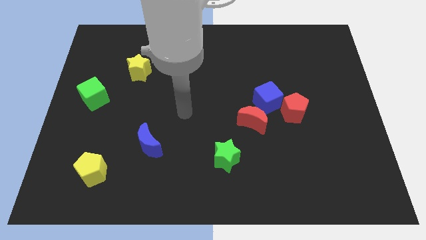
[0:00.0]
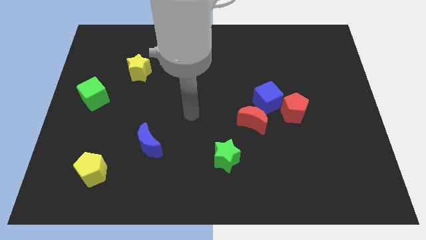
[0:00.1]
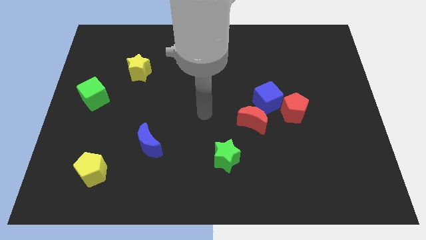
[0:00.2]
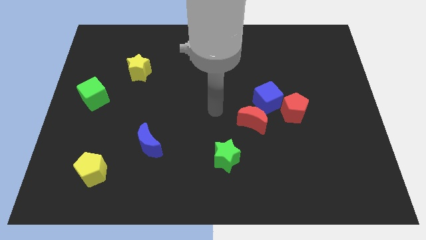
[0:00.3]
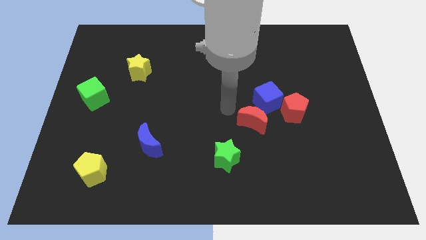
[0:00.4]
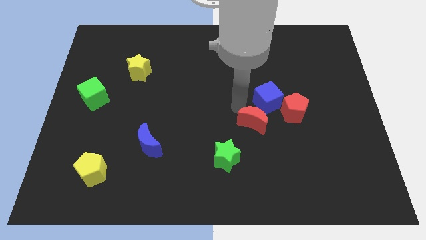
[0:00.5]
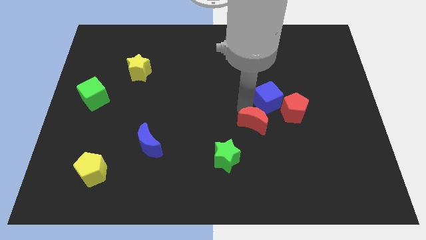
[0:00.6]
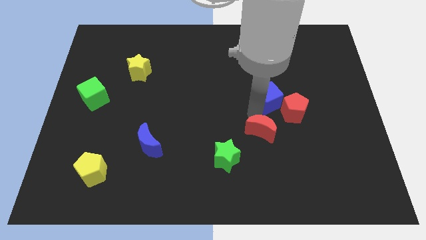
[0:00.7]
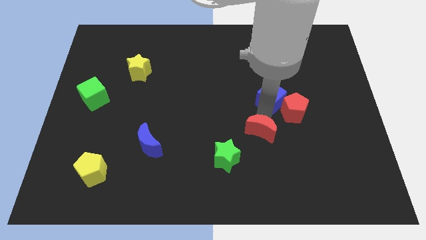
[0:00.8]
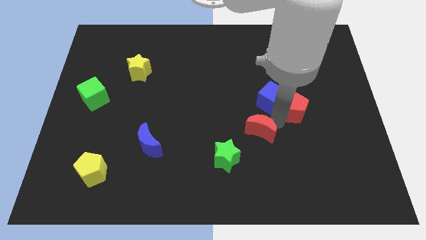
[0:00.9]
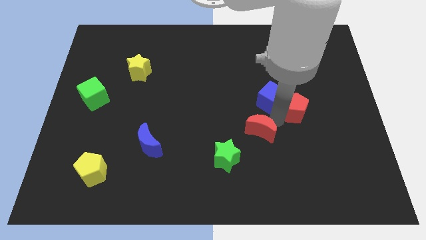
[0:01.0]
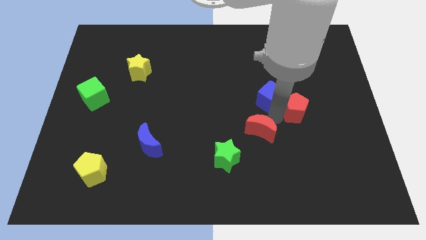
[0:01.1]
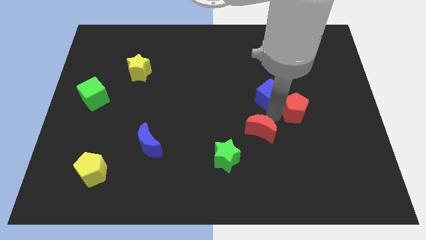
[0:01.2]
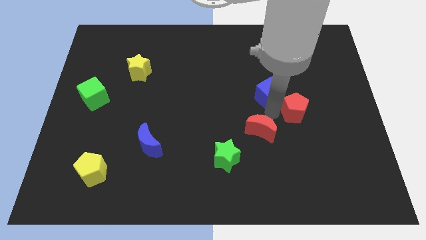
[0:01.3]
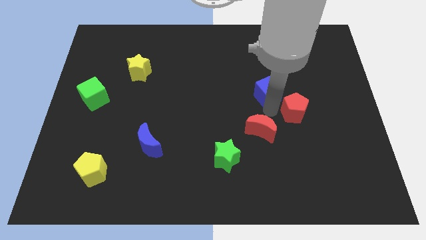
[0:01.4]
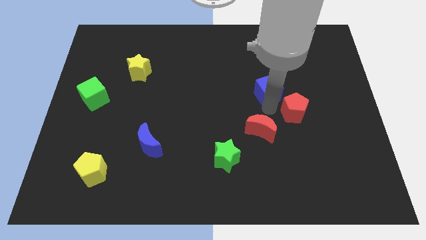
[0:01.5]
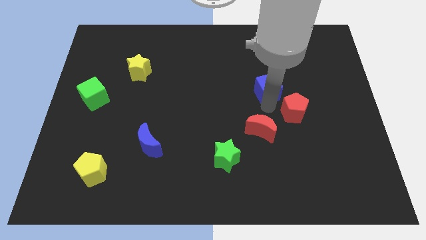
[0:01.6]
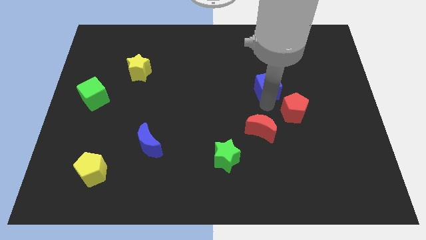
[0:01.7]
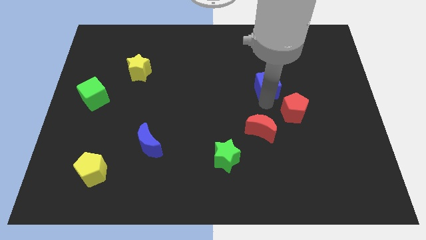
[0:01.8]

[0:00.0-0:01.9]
move the blue cube away from the red pentagon and red moon

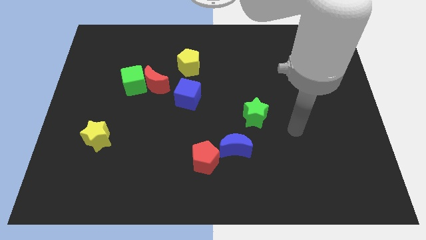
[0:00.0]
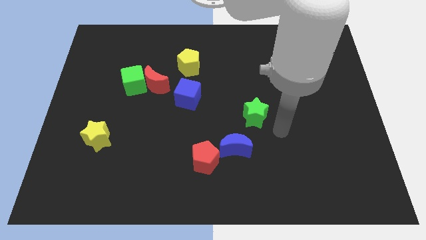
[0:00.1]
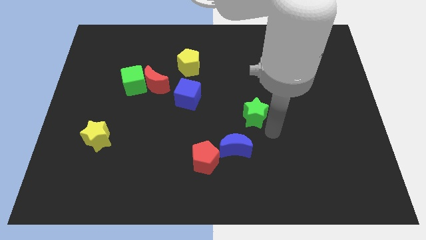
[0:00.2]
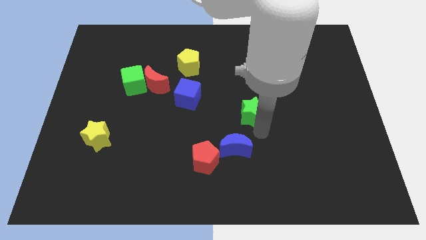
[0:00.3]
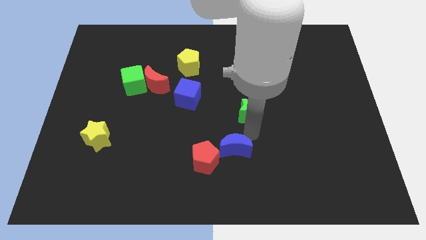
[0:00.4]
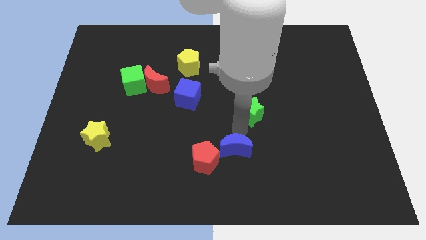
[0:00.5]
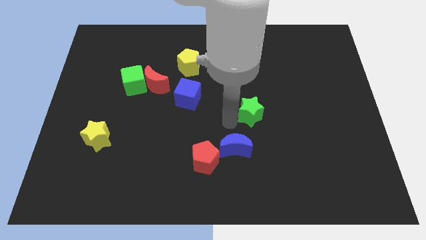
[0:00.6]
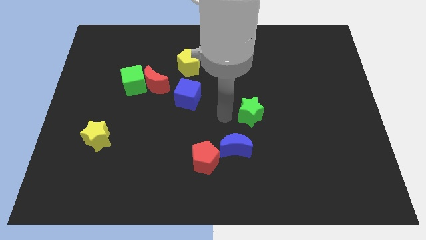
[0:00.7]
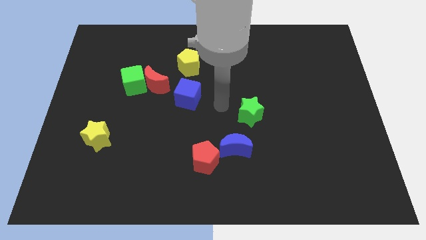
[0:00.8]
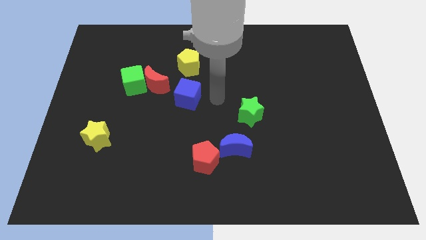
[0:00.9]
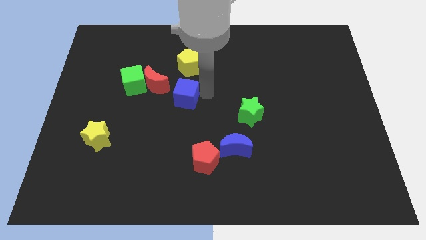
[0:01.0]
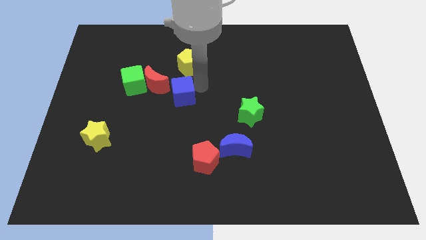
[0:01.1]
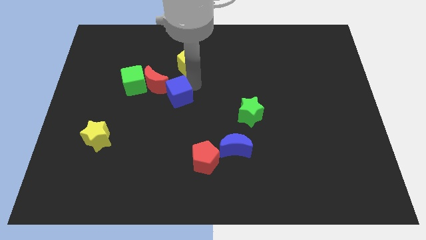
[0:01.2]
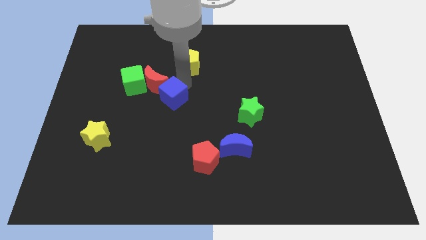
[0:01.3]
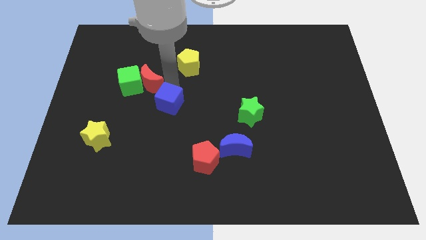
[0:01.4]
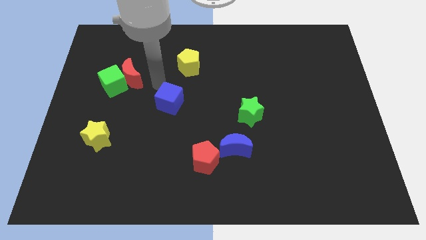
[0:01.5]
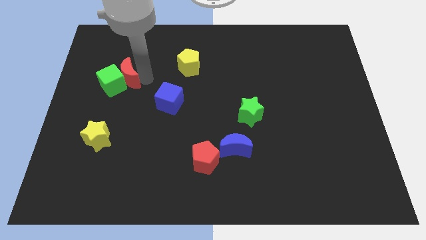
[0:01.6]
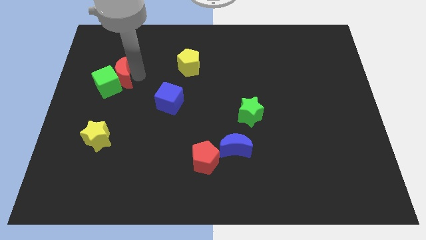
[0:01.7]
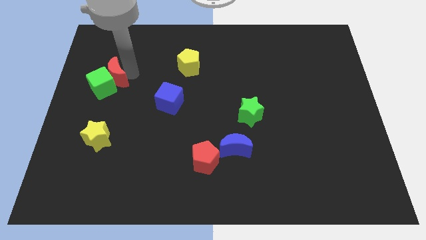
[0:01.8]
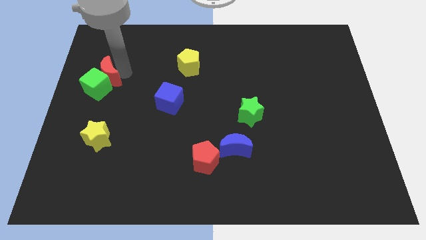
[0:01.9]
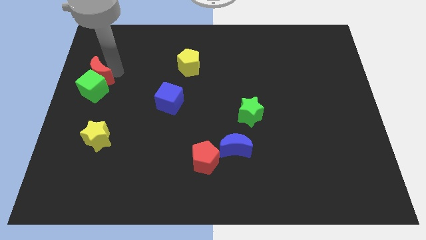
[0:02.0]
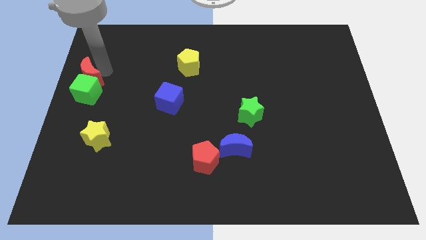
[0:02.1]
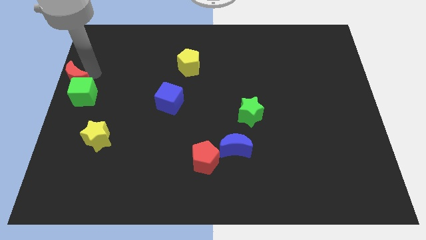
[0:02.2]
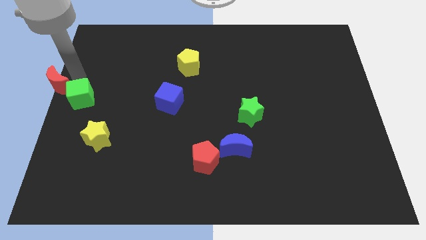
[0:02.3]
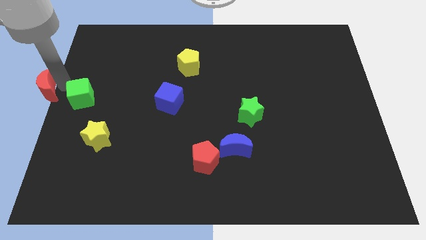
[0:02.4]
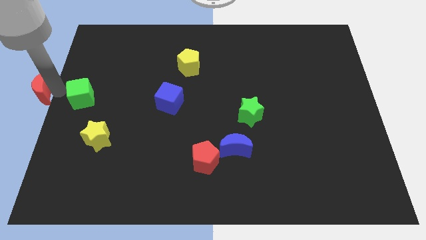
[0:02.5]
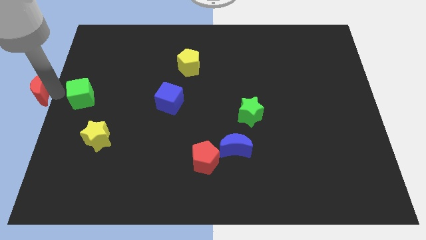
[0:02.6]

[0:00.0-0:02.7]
separate the green cube from the red moon

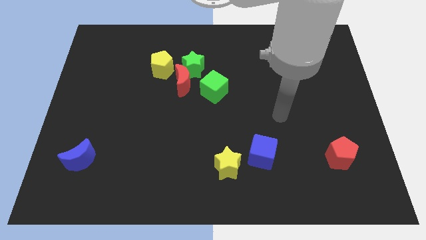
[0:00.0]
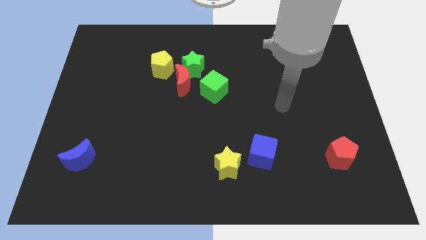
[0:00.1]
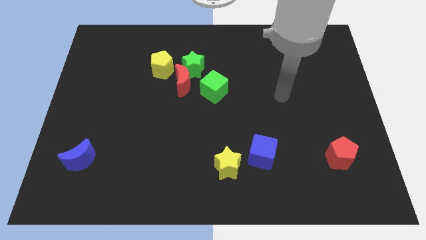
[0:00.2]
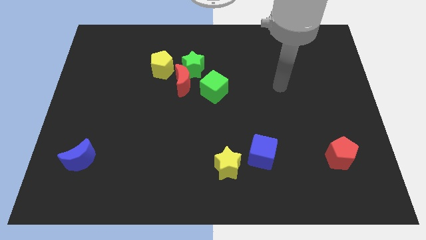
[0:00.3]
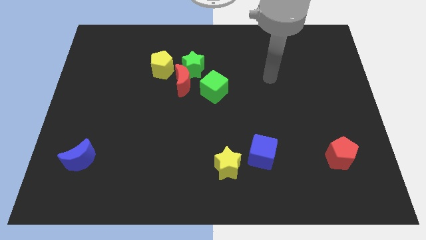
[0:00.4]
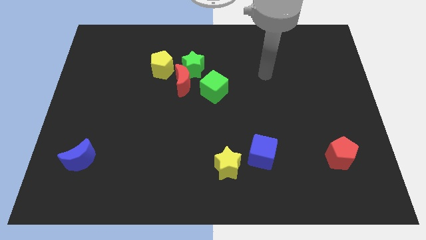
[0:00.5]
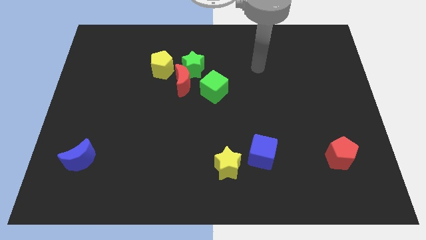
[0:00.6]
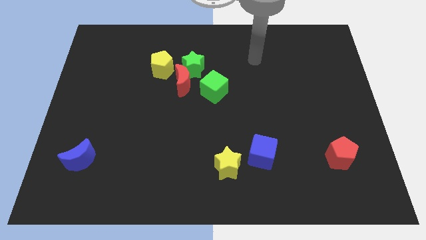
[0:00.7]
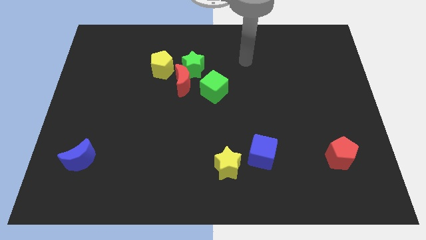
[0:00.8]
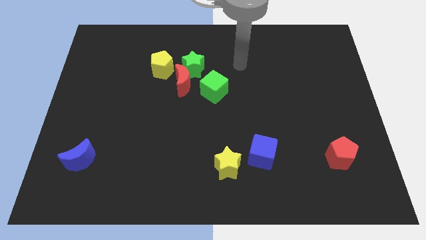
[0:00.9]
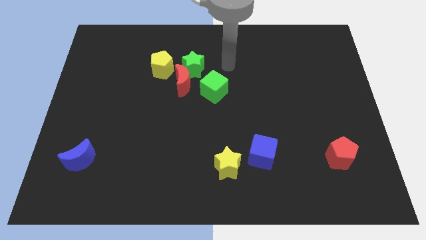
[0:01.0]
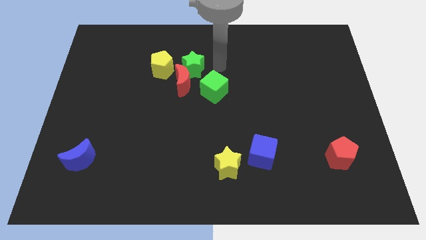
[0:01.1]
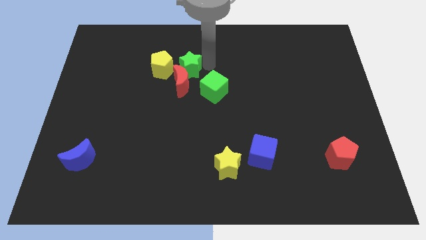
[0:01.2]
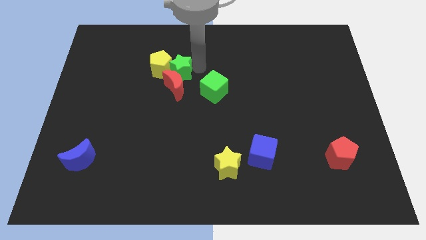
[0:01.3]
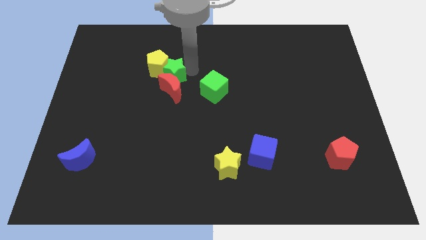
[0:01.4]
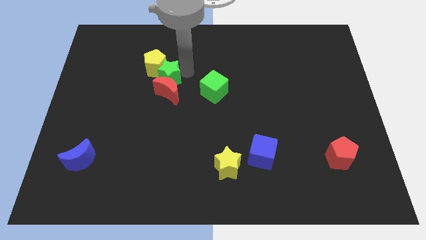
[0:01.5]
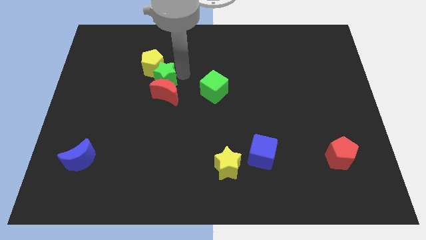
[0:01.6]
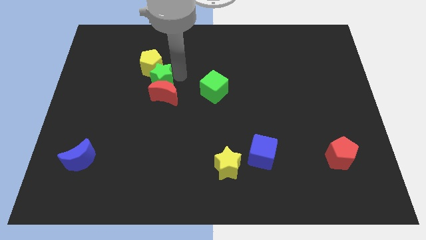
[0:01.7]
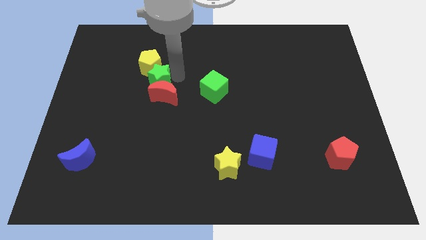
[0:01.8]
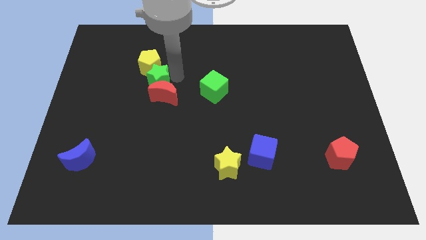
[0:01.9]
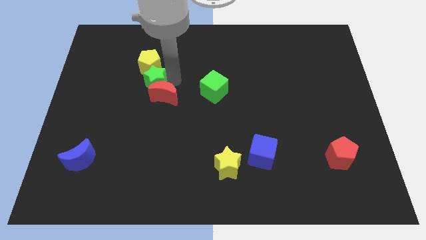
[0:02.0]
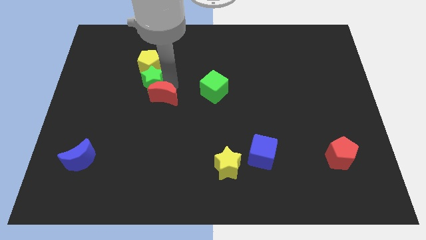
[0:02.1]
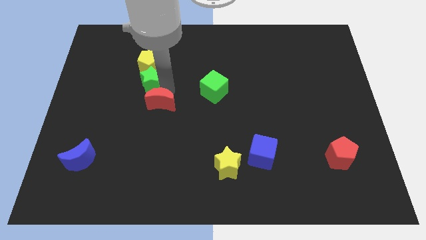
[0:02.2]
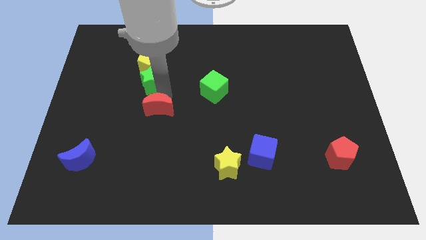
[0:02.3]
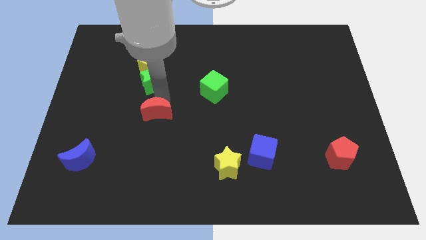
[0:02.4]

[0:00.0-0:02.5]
move the red moon away from the green star, yellow pentagon, and green cube

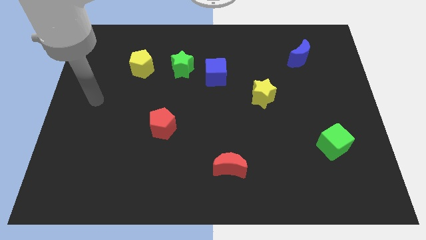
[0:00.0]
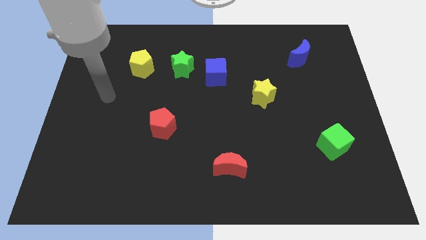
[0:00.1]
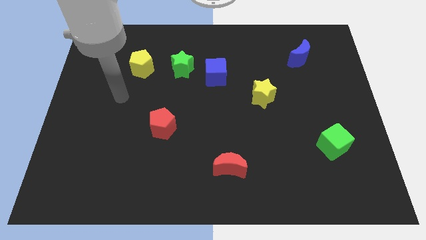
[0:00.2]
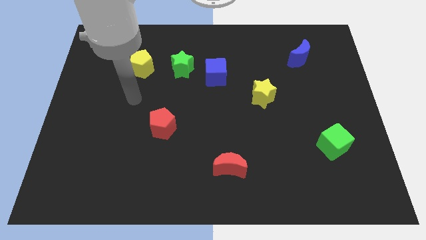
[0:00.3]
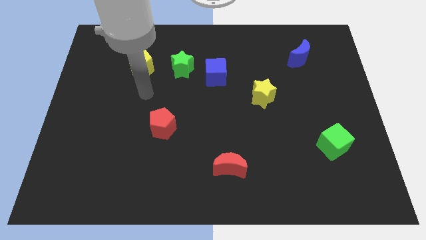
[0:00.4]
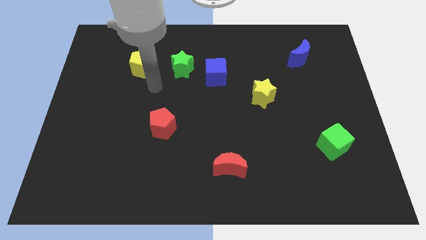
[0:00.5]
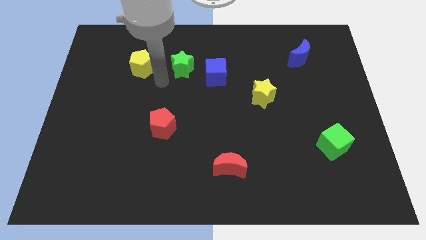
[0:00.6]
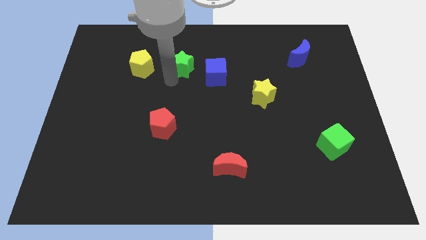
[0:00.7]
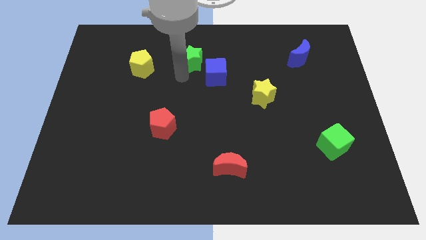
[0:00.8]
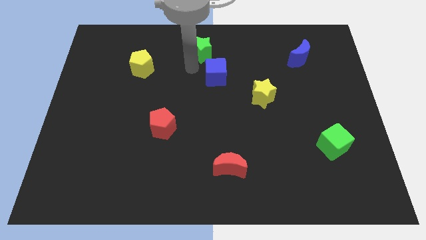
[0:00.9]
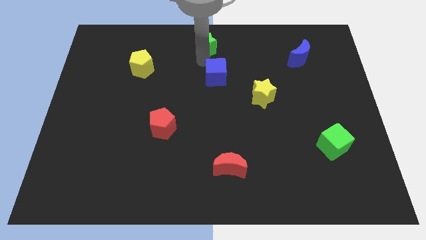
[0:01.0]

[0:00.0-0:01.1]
separate the blue cube from the green star

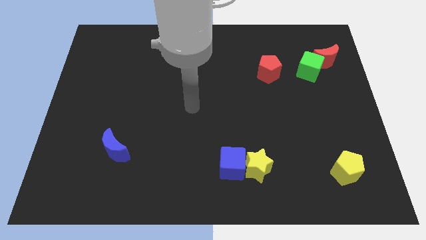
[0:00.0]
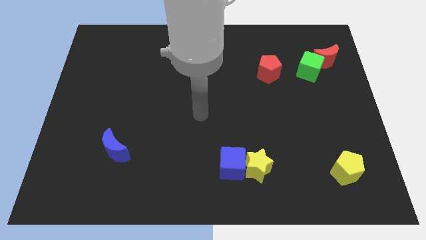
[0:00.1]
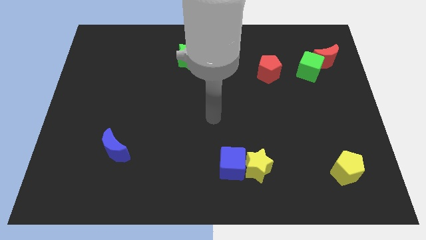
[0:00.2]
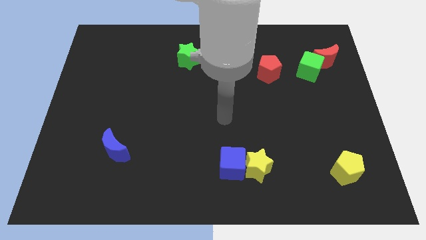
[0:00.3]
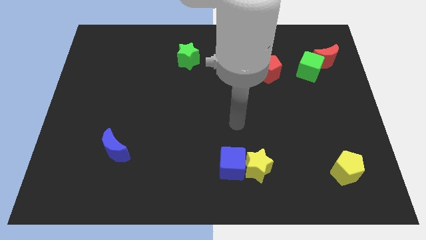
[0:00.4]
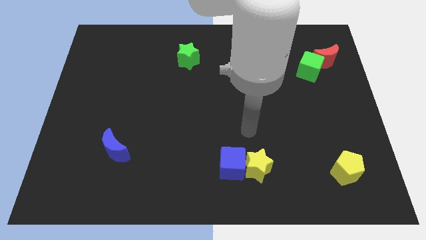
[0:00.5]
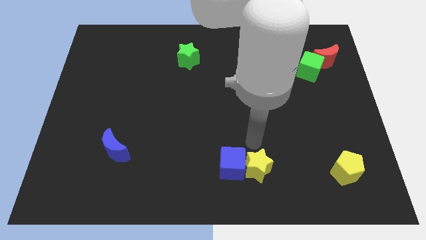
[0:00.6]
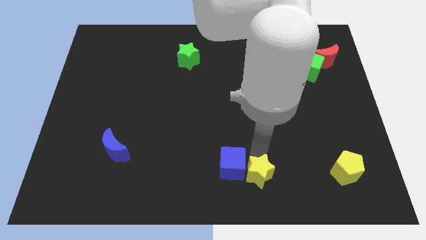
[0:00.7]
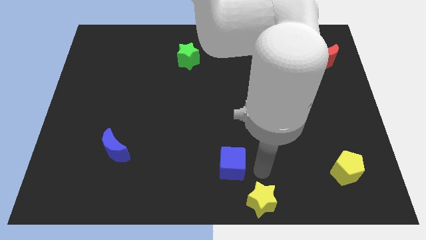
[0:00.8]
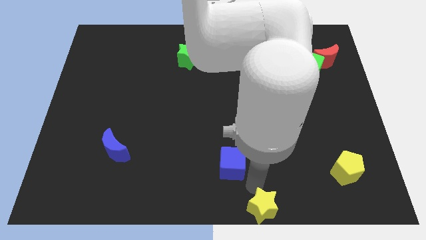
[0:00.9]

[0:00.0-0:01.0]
move the blue cube away from the yellow star

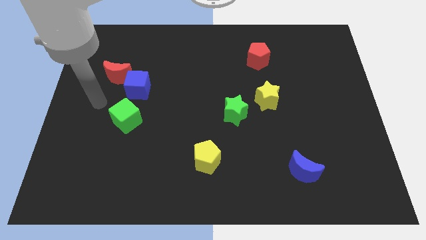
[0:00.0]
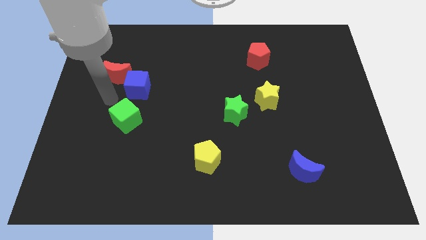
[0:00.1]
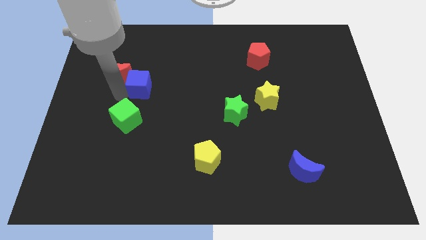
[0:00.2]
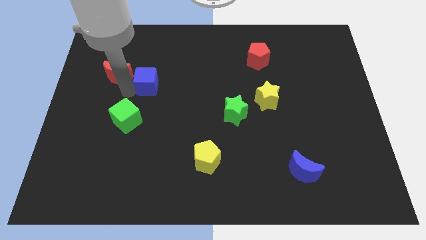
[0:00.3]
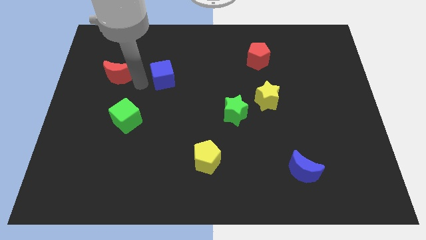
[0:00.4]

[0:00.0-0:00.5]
separate the red moon from the blue cube
